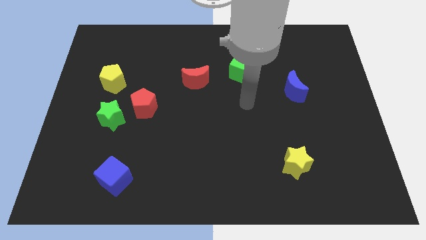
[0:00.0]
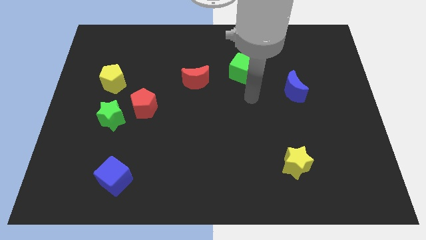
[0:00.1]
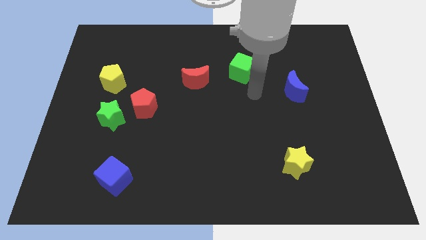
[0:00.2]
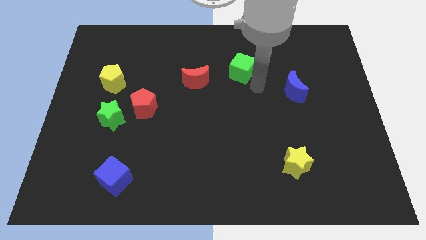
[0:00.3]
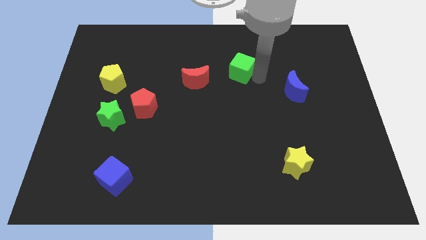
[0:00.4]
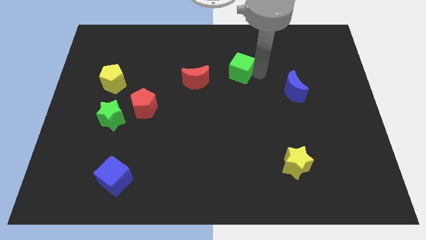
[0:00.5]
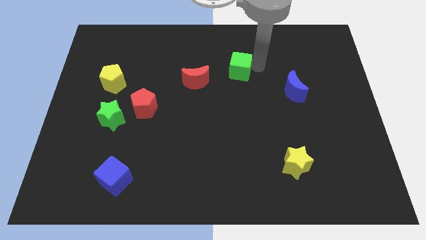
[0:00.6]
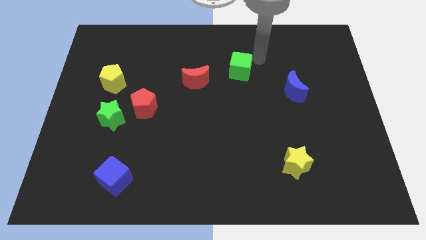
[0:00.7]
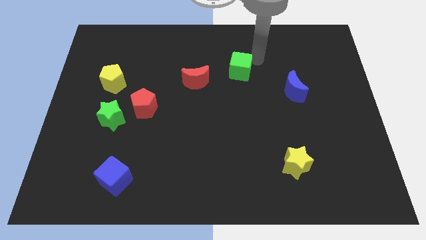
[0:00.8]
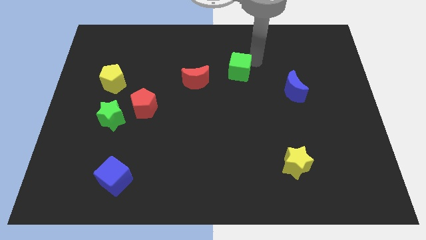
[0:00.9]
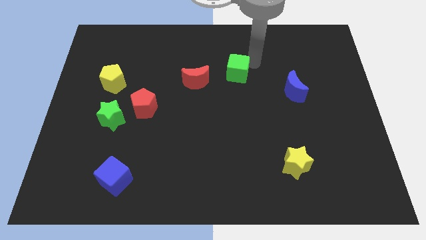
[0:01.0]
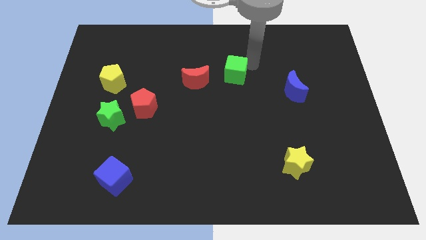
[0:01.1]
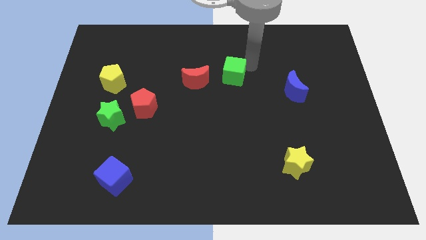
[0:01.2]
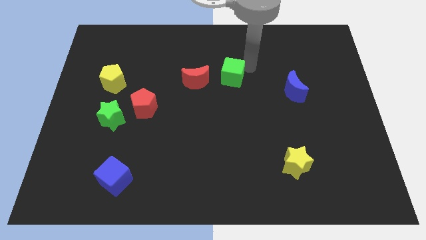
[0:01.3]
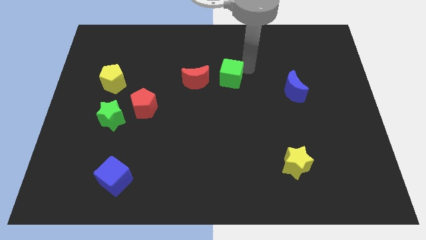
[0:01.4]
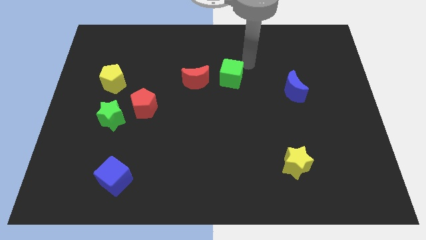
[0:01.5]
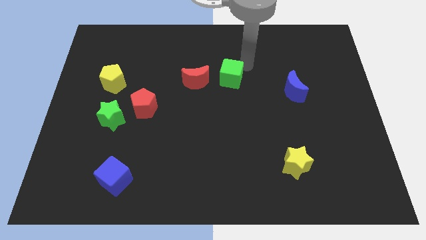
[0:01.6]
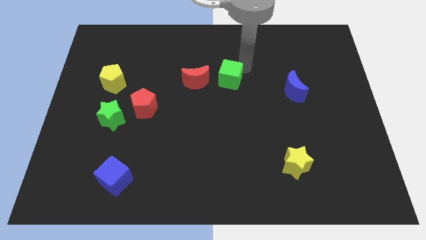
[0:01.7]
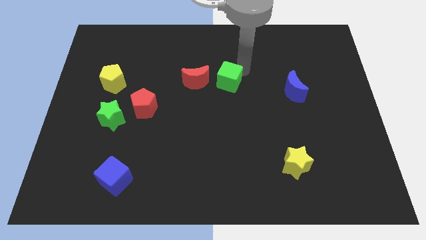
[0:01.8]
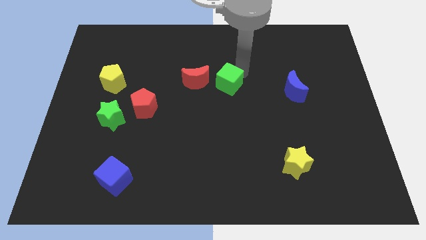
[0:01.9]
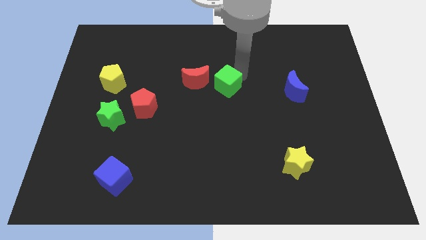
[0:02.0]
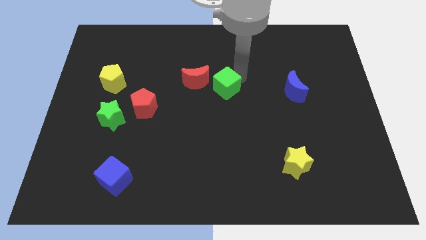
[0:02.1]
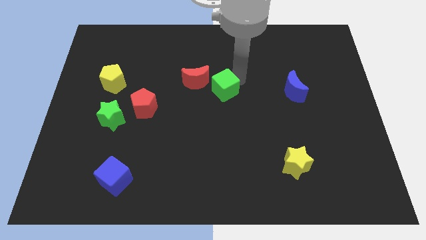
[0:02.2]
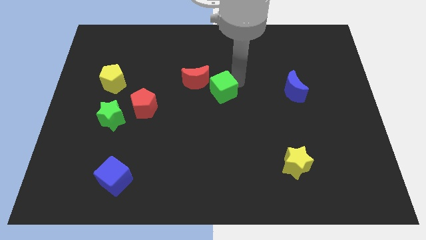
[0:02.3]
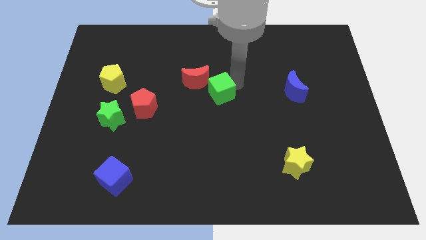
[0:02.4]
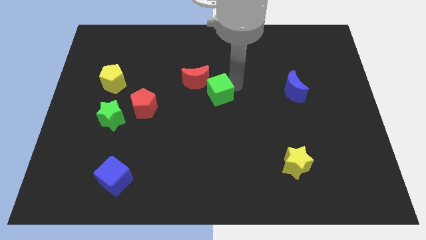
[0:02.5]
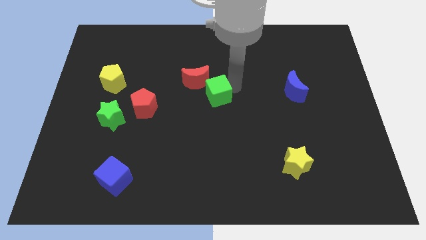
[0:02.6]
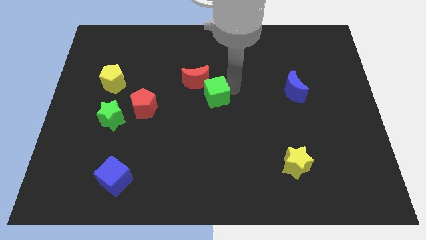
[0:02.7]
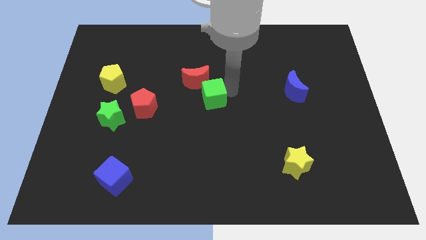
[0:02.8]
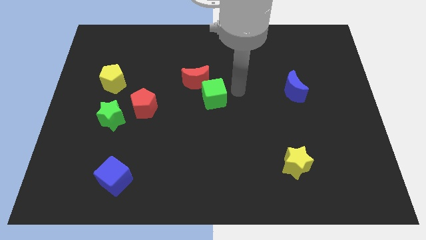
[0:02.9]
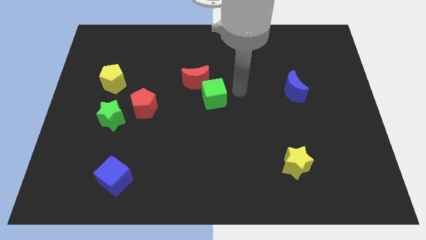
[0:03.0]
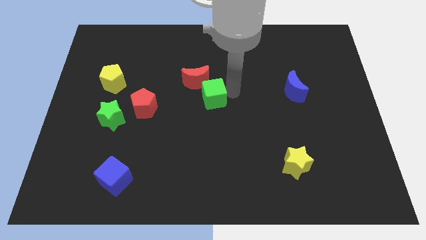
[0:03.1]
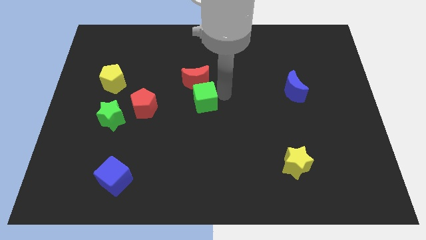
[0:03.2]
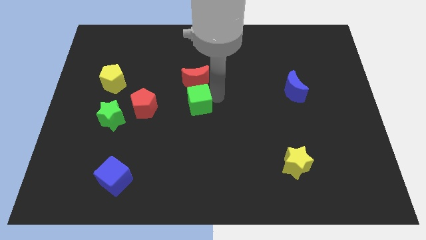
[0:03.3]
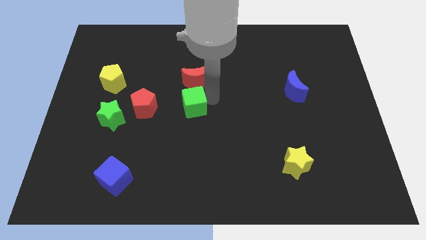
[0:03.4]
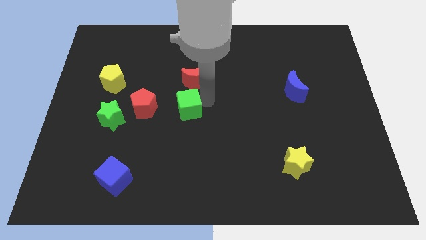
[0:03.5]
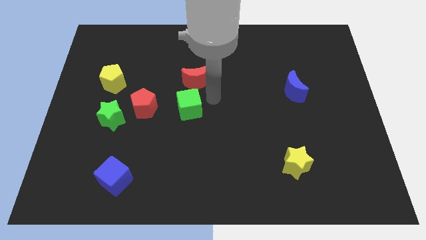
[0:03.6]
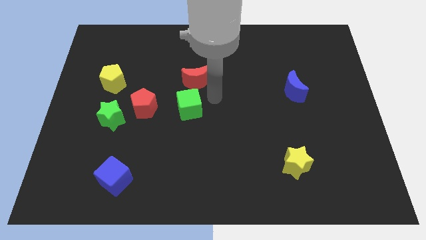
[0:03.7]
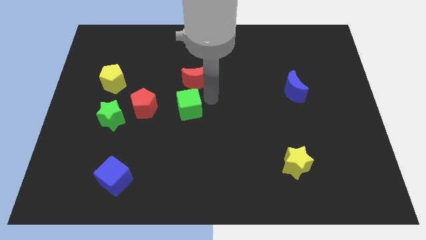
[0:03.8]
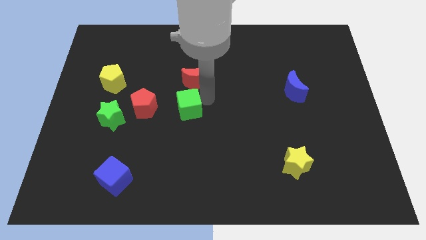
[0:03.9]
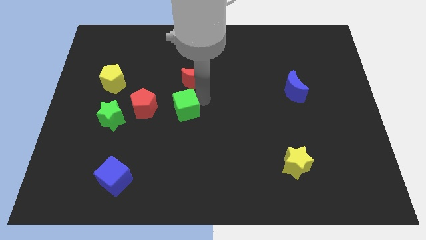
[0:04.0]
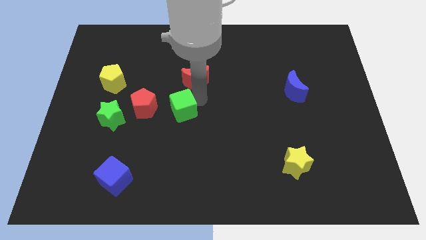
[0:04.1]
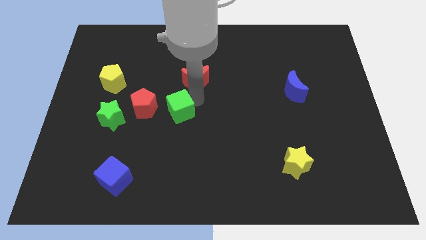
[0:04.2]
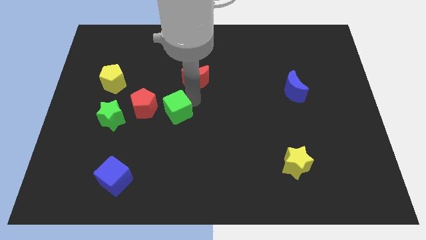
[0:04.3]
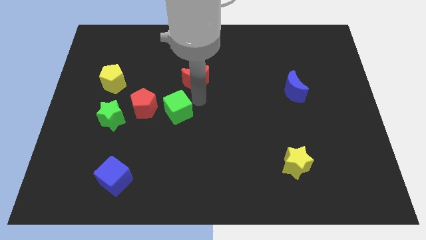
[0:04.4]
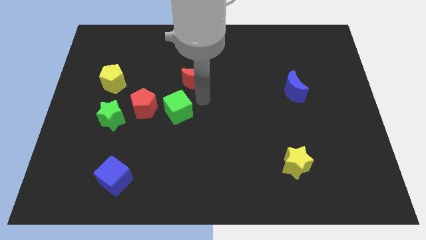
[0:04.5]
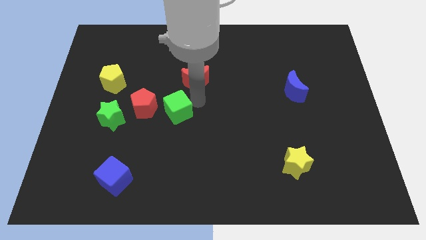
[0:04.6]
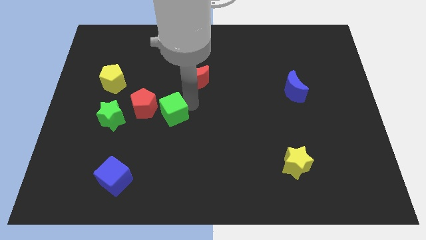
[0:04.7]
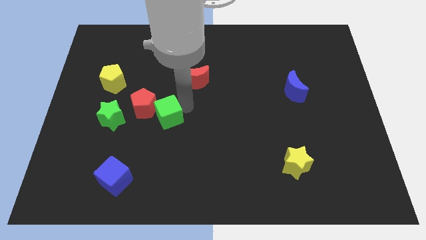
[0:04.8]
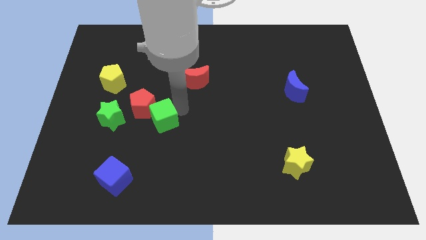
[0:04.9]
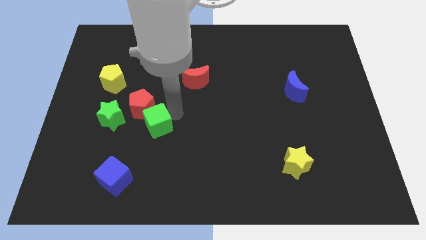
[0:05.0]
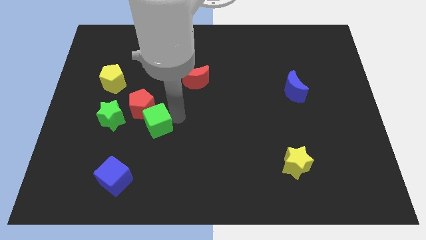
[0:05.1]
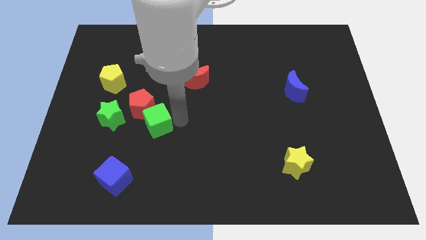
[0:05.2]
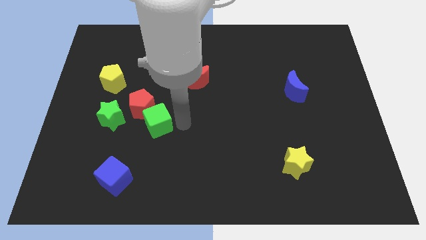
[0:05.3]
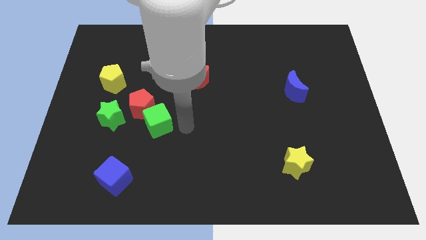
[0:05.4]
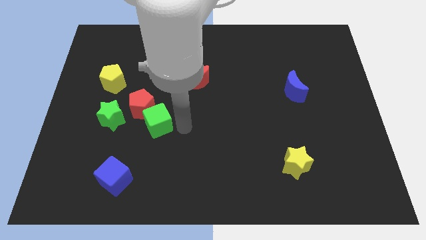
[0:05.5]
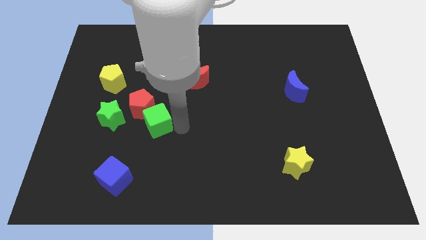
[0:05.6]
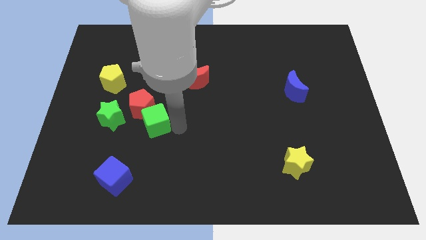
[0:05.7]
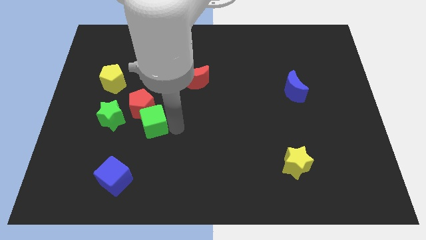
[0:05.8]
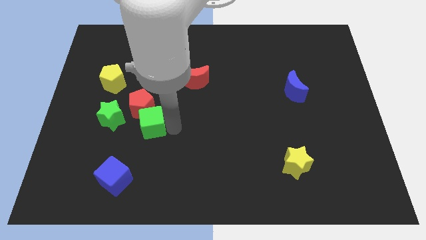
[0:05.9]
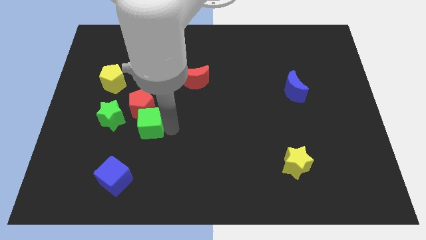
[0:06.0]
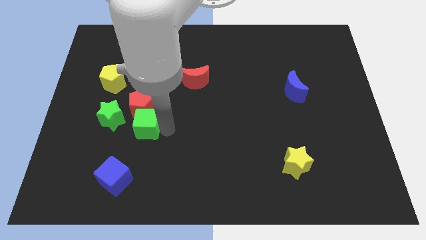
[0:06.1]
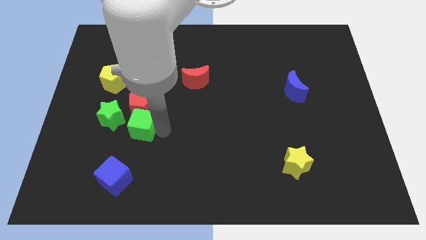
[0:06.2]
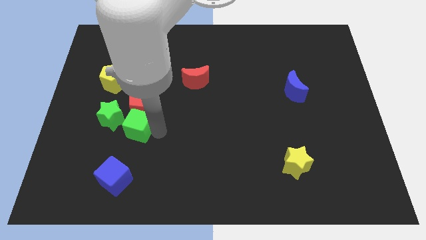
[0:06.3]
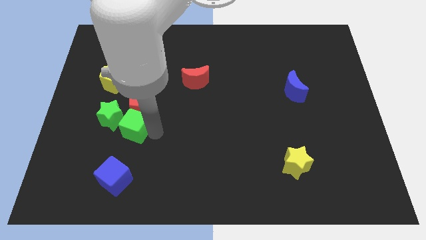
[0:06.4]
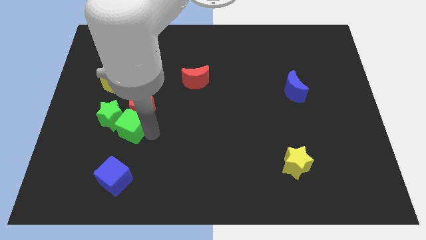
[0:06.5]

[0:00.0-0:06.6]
move the green cube close to the green star
